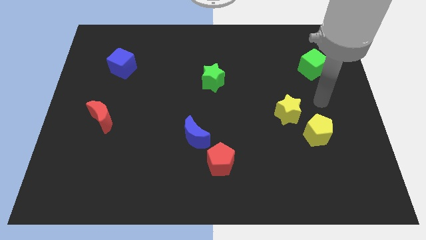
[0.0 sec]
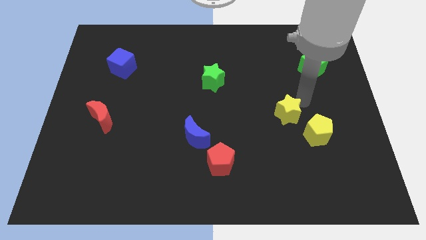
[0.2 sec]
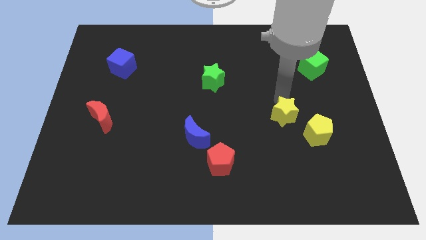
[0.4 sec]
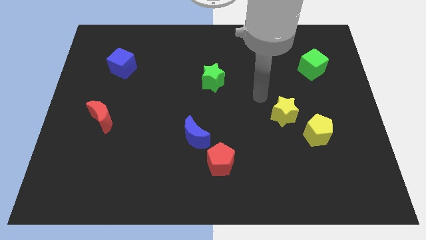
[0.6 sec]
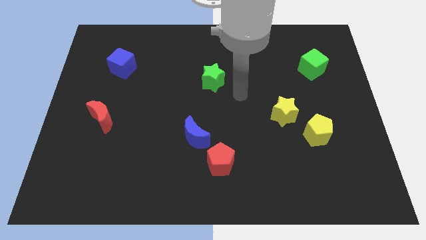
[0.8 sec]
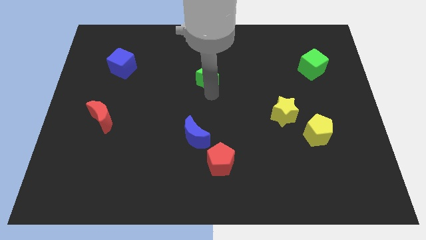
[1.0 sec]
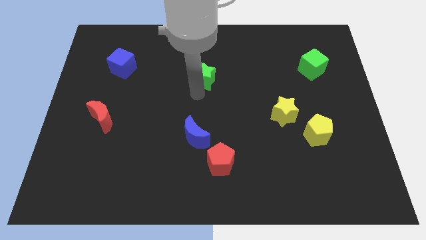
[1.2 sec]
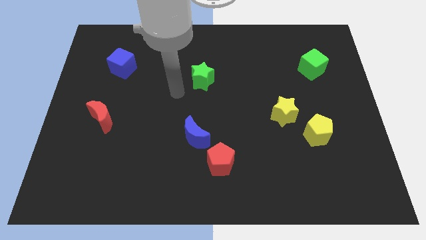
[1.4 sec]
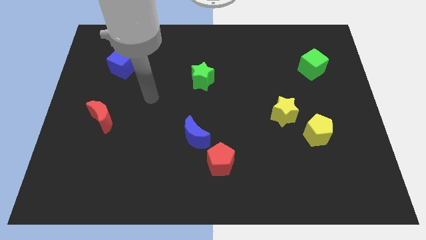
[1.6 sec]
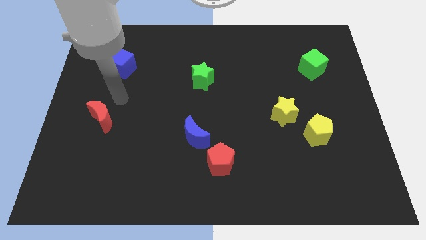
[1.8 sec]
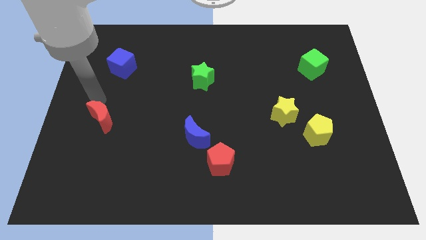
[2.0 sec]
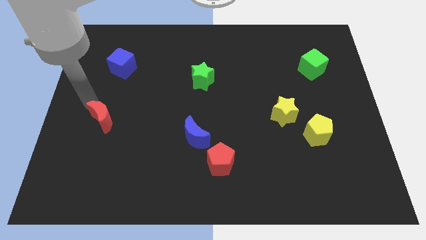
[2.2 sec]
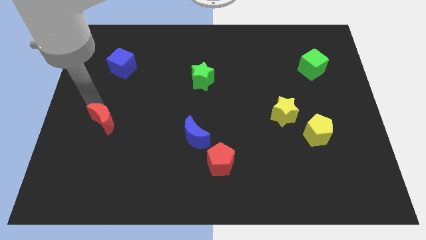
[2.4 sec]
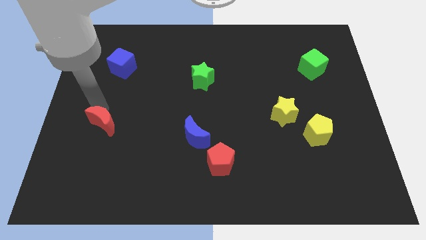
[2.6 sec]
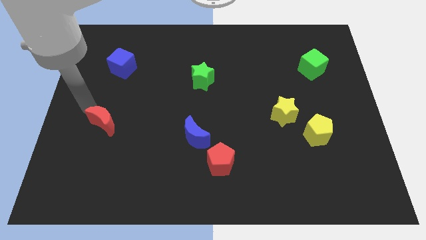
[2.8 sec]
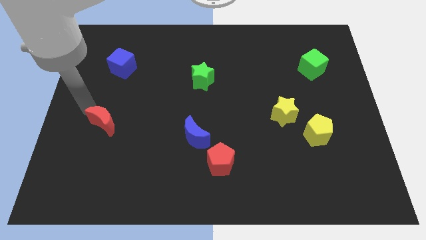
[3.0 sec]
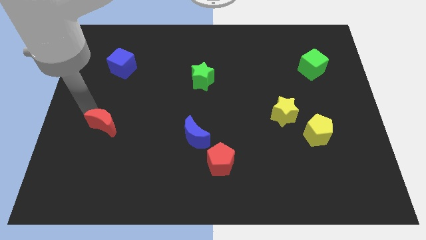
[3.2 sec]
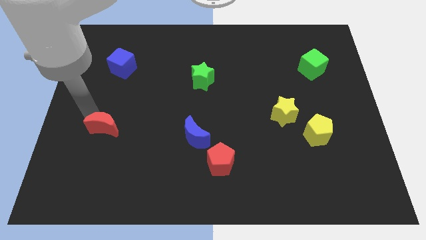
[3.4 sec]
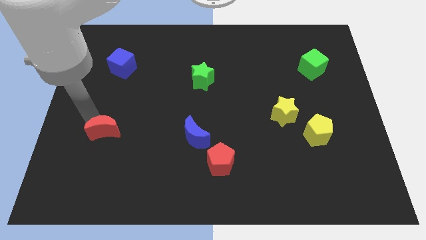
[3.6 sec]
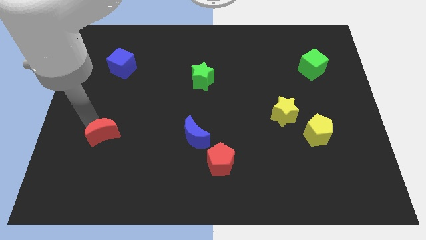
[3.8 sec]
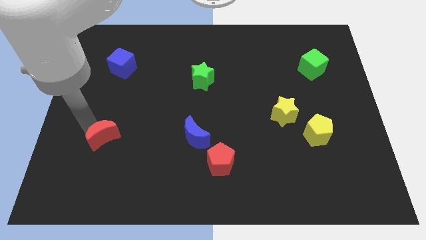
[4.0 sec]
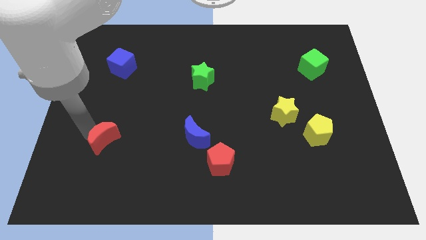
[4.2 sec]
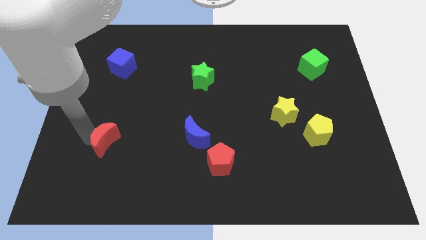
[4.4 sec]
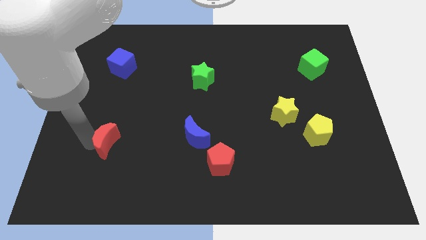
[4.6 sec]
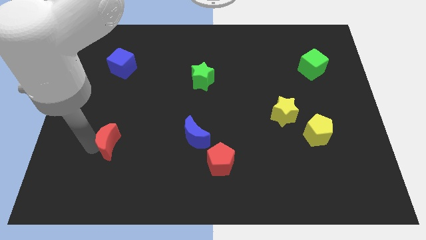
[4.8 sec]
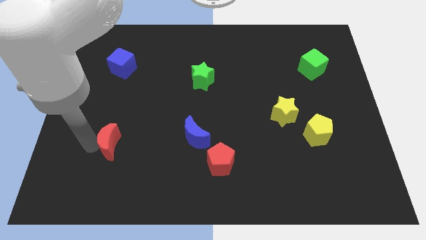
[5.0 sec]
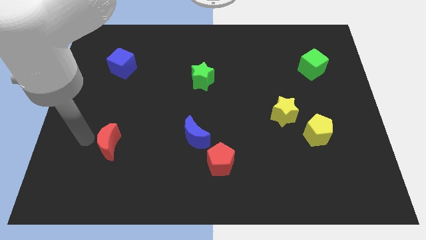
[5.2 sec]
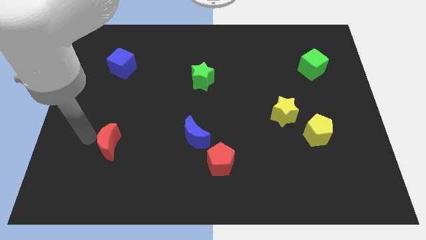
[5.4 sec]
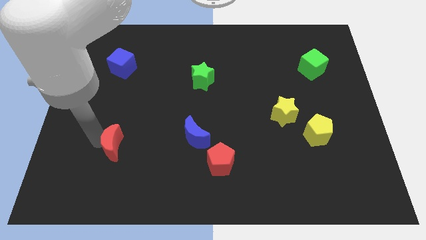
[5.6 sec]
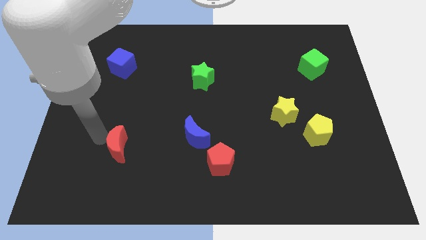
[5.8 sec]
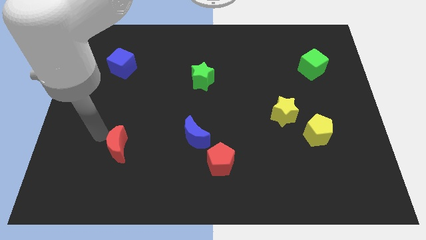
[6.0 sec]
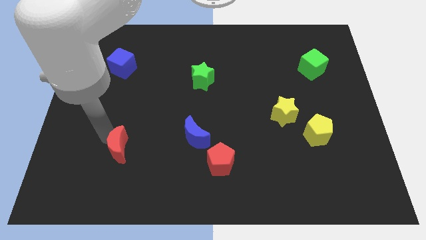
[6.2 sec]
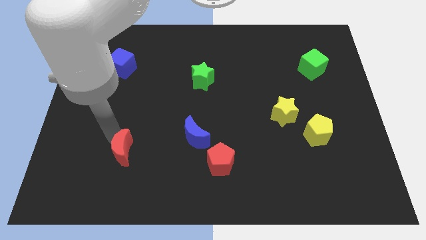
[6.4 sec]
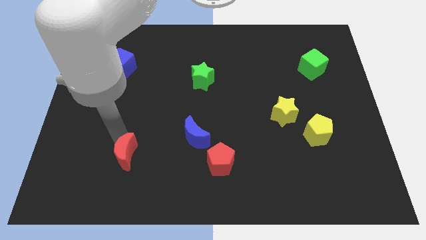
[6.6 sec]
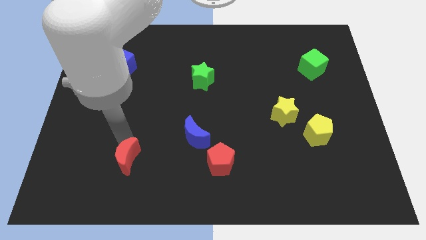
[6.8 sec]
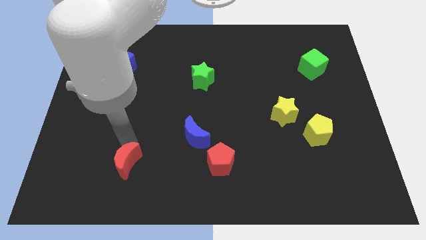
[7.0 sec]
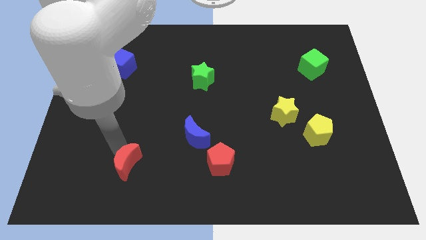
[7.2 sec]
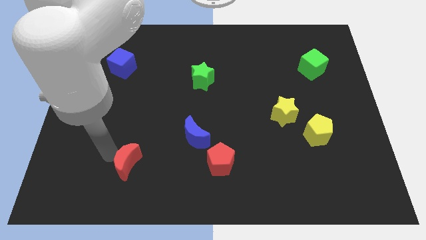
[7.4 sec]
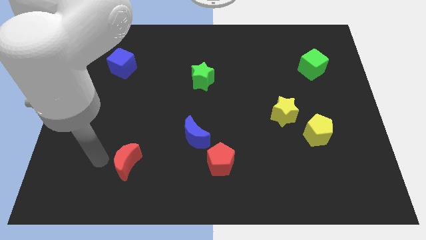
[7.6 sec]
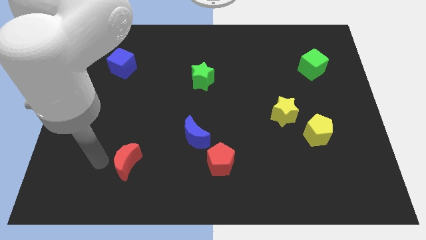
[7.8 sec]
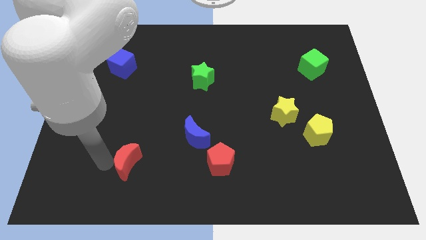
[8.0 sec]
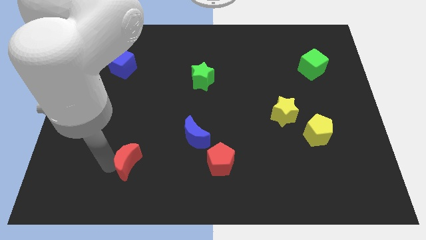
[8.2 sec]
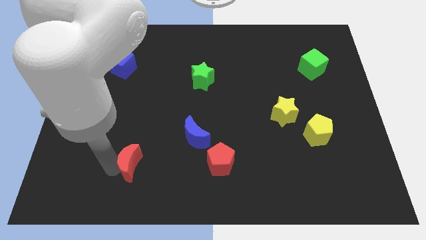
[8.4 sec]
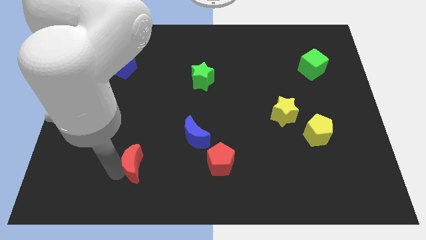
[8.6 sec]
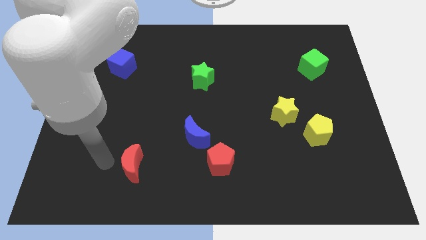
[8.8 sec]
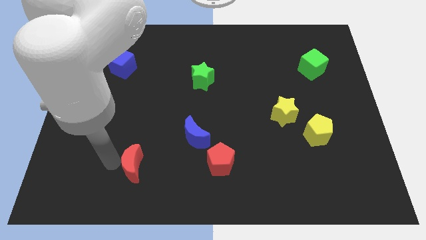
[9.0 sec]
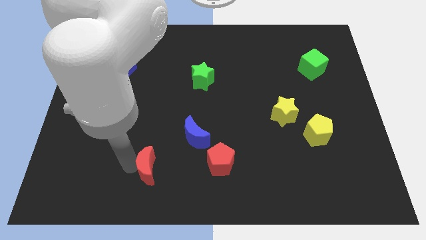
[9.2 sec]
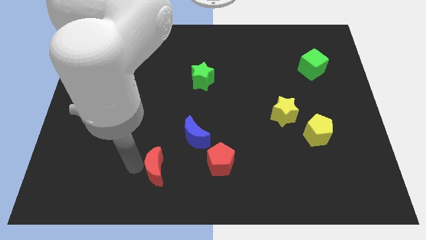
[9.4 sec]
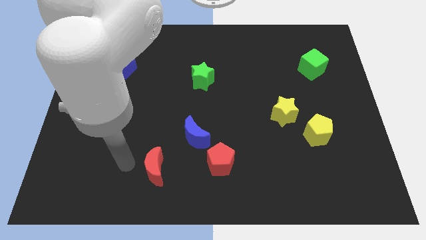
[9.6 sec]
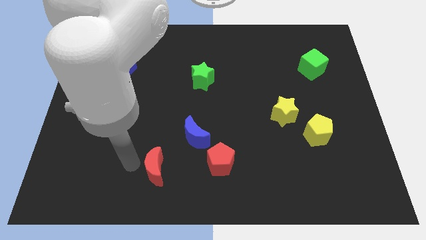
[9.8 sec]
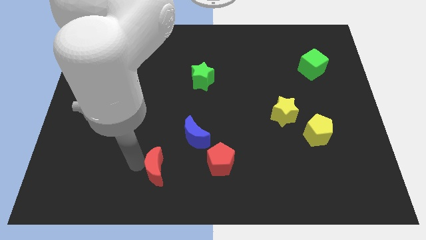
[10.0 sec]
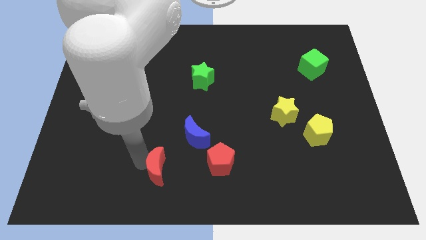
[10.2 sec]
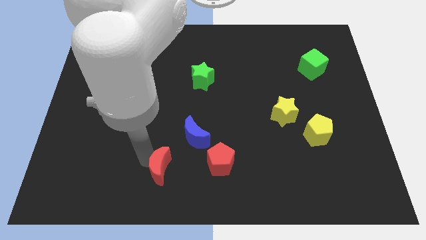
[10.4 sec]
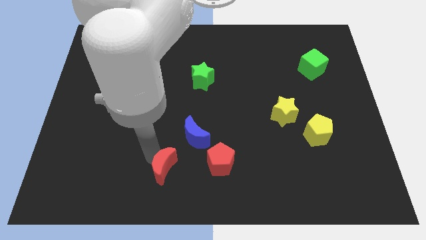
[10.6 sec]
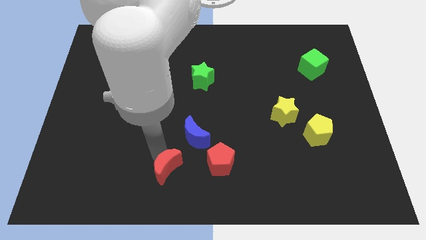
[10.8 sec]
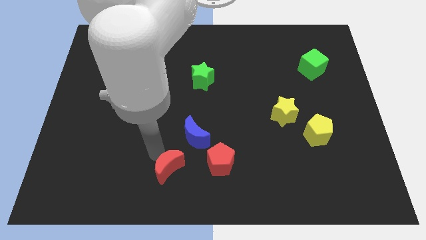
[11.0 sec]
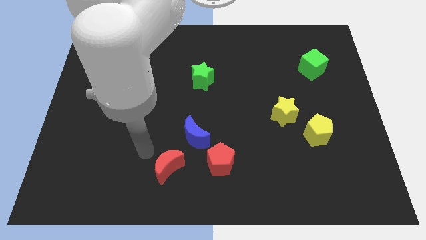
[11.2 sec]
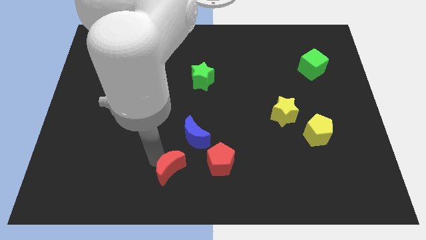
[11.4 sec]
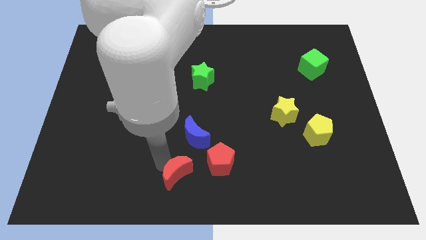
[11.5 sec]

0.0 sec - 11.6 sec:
put the red moon to the bottom left side of the red pentagon

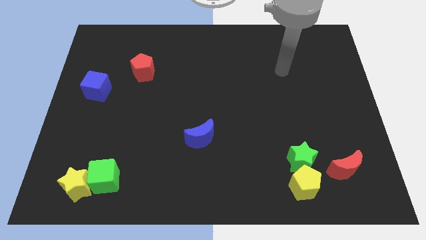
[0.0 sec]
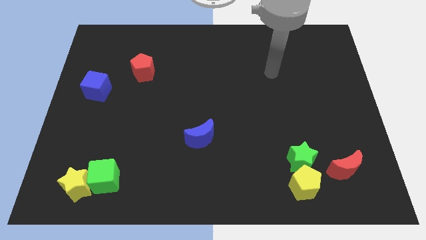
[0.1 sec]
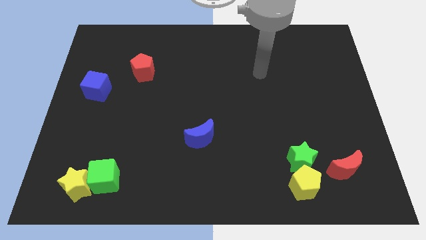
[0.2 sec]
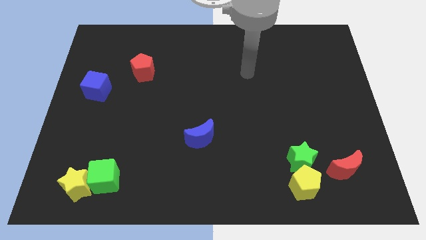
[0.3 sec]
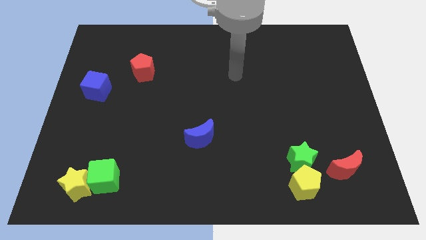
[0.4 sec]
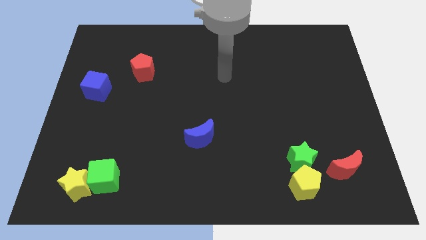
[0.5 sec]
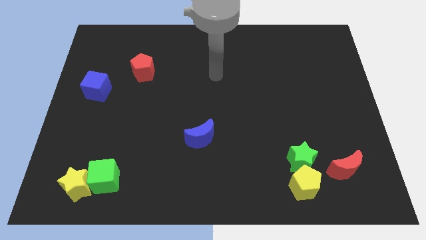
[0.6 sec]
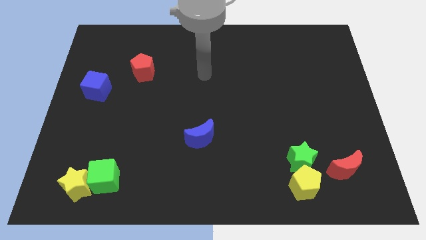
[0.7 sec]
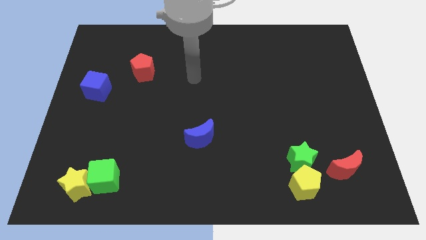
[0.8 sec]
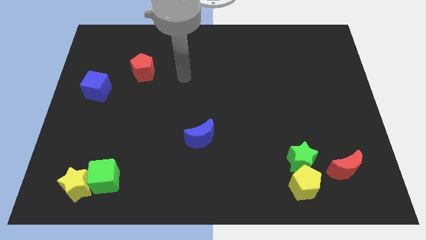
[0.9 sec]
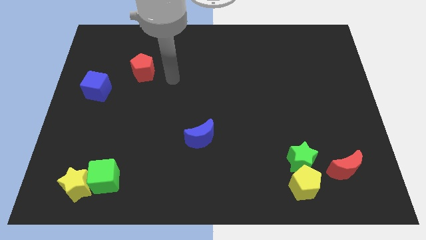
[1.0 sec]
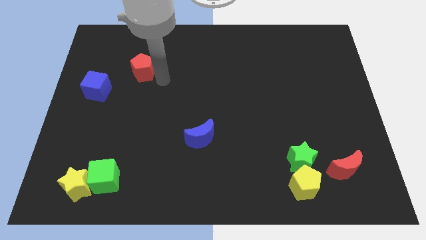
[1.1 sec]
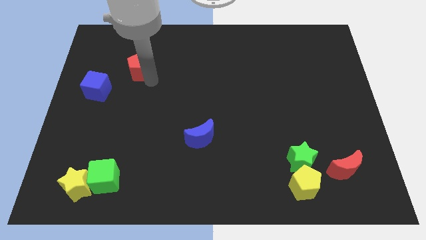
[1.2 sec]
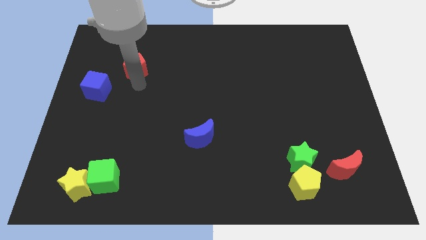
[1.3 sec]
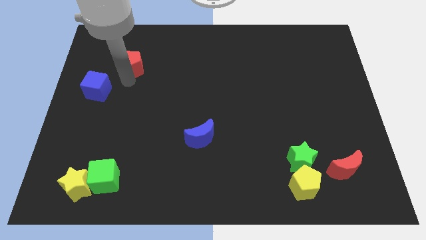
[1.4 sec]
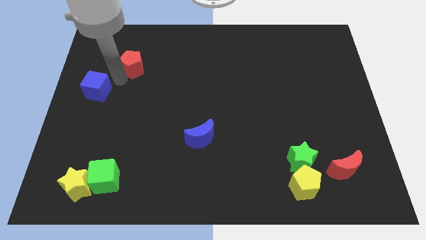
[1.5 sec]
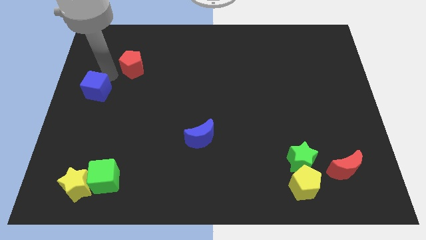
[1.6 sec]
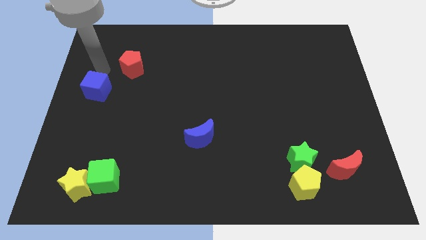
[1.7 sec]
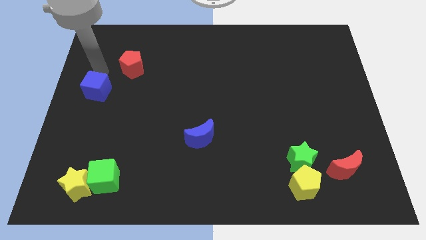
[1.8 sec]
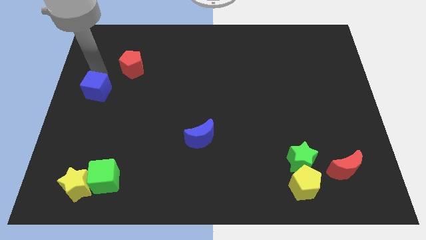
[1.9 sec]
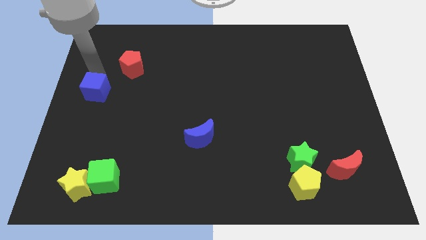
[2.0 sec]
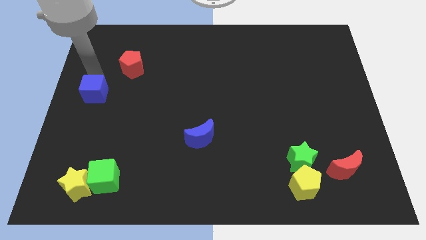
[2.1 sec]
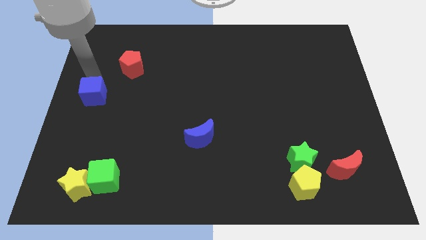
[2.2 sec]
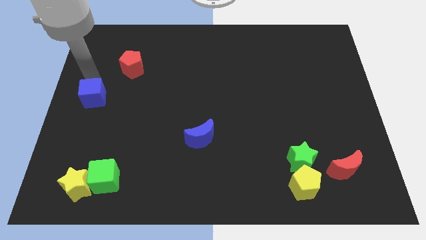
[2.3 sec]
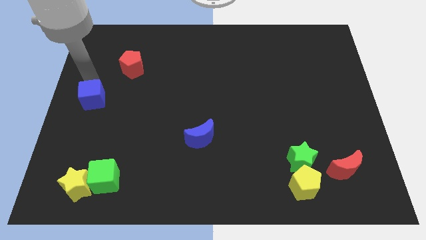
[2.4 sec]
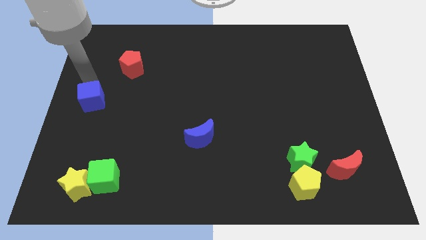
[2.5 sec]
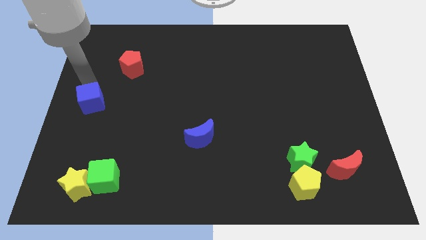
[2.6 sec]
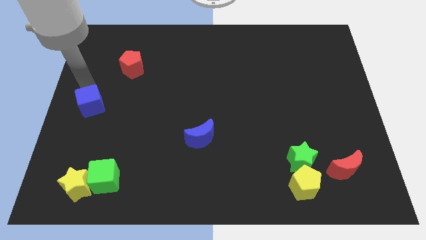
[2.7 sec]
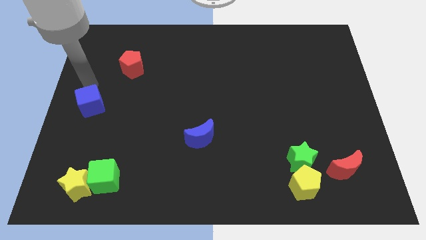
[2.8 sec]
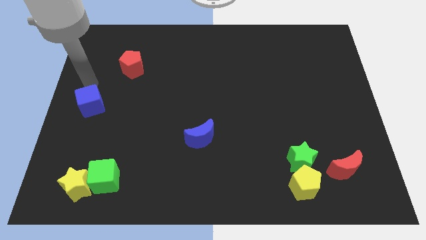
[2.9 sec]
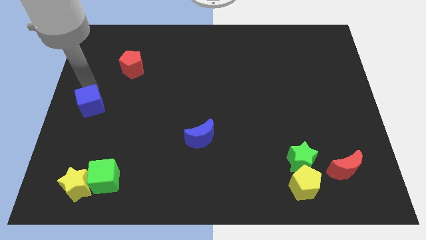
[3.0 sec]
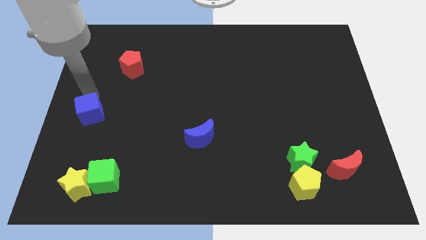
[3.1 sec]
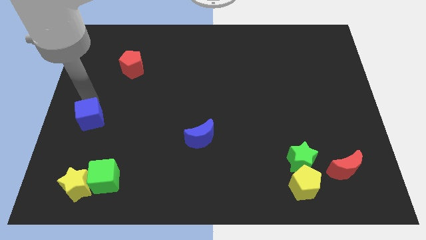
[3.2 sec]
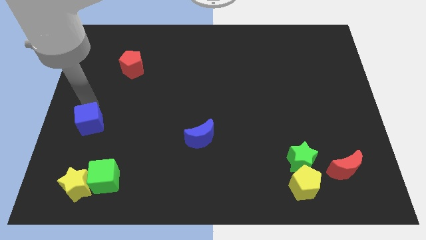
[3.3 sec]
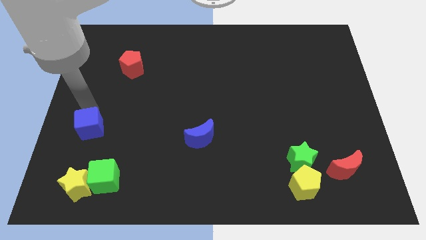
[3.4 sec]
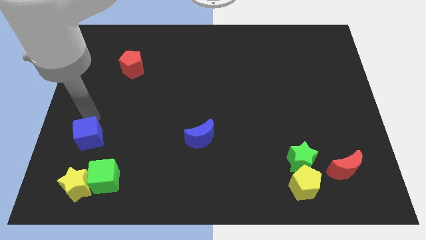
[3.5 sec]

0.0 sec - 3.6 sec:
push the blue cube to the top left side of the green cube
